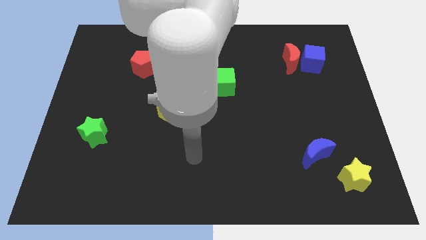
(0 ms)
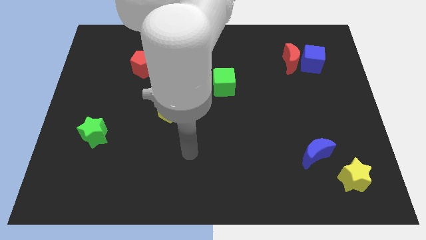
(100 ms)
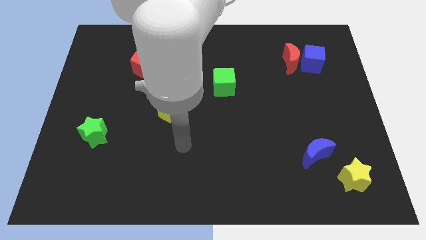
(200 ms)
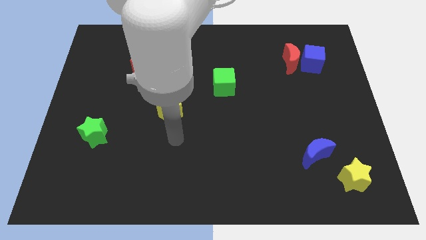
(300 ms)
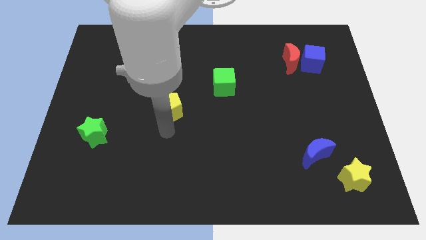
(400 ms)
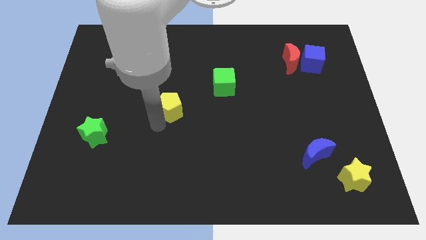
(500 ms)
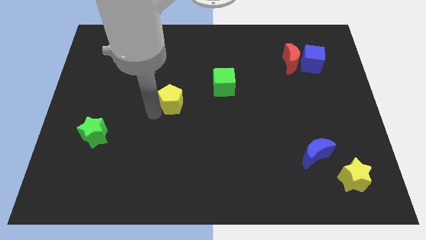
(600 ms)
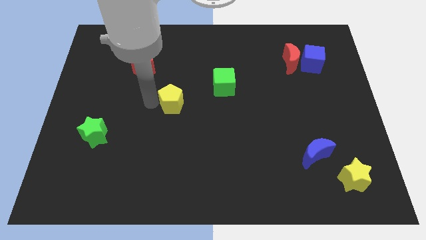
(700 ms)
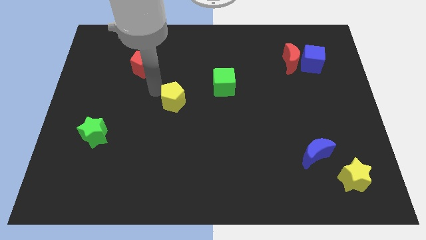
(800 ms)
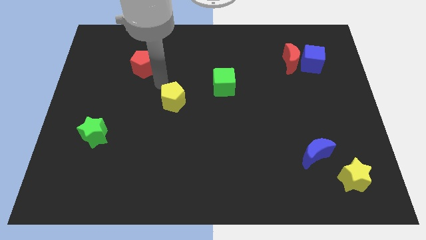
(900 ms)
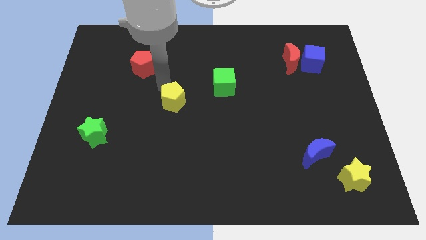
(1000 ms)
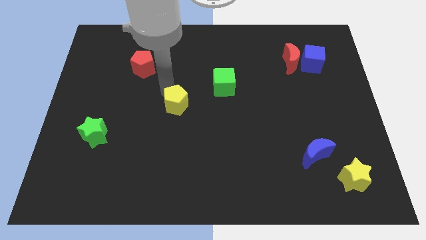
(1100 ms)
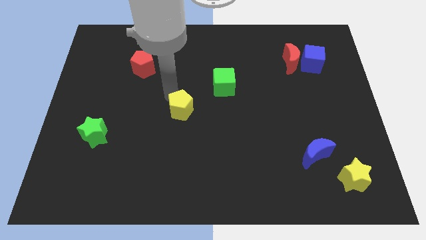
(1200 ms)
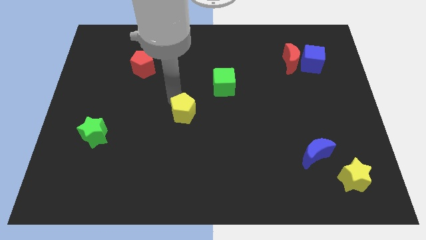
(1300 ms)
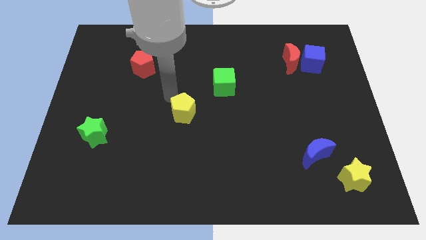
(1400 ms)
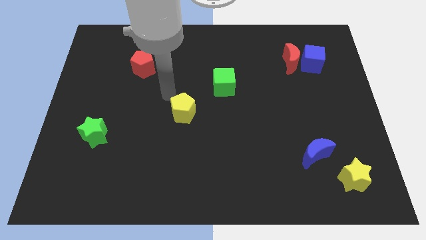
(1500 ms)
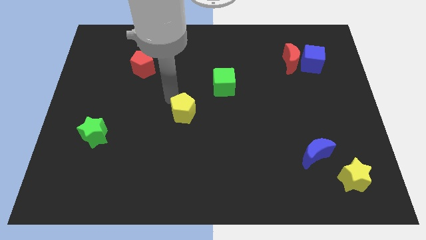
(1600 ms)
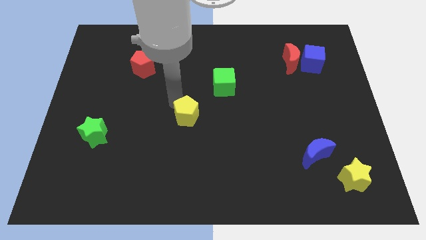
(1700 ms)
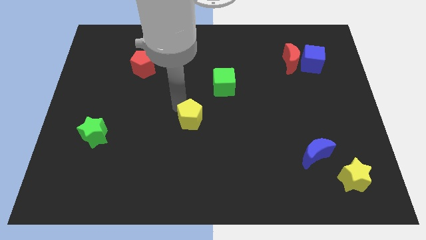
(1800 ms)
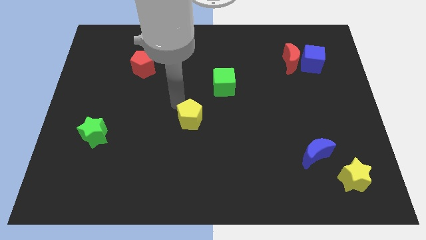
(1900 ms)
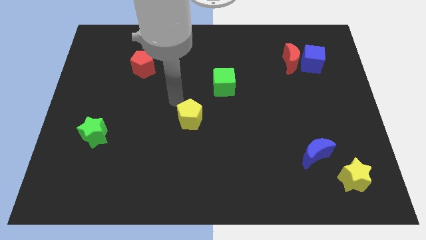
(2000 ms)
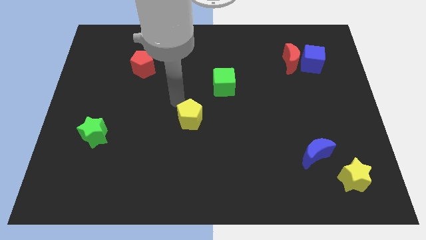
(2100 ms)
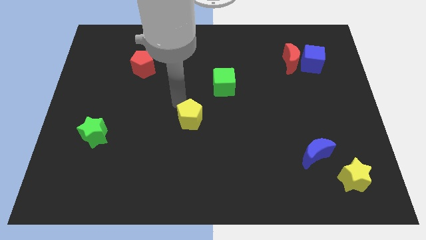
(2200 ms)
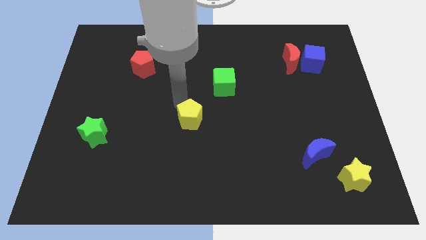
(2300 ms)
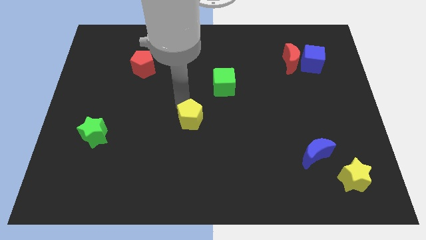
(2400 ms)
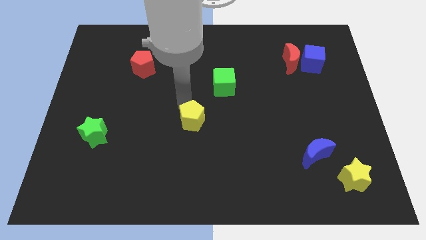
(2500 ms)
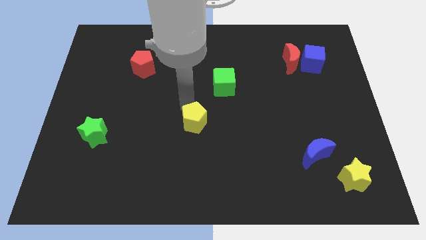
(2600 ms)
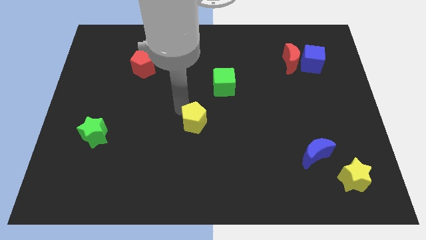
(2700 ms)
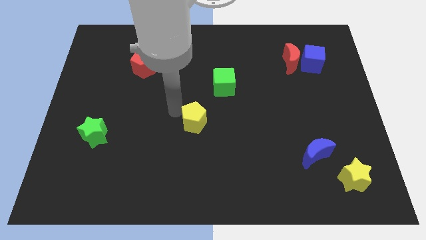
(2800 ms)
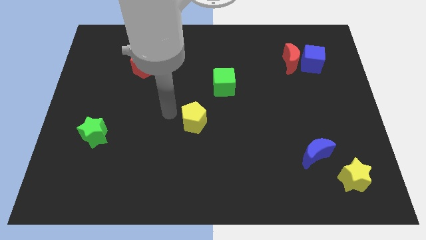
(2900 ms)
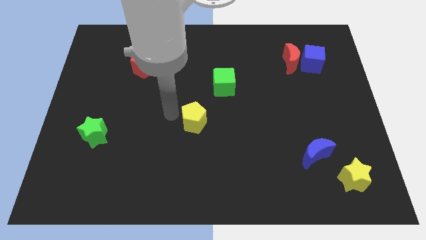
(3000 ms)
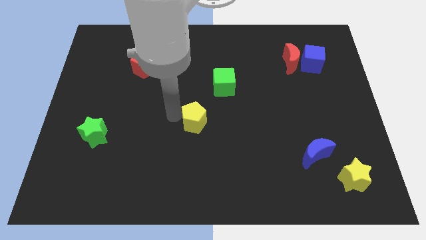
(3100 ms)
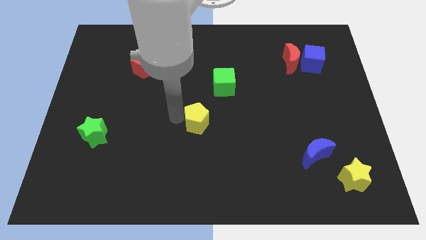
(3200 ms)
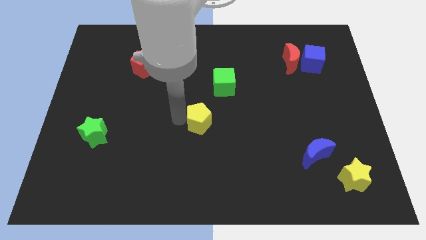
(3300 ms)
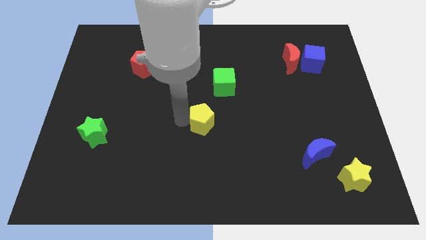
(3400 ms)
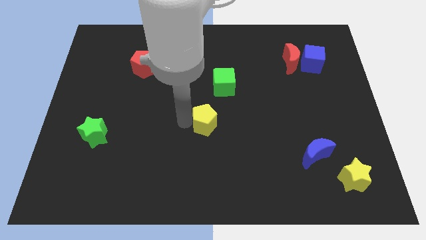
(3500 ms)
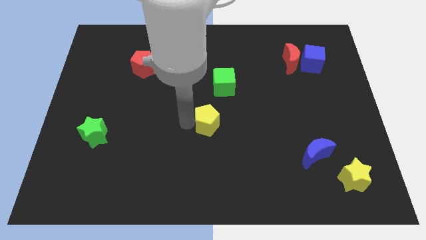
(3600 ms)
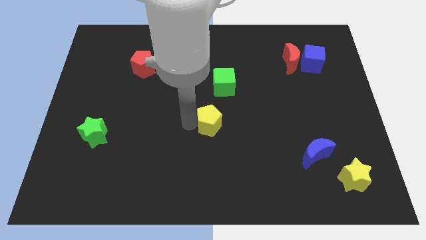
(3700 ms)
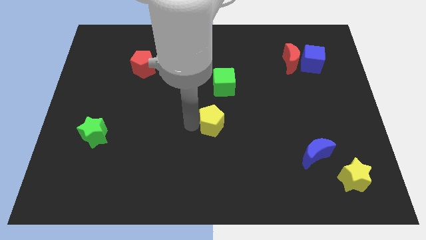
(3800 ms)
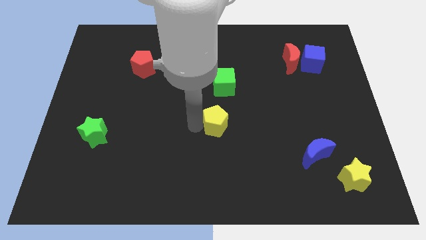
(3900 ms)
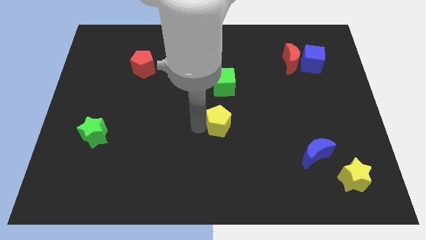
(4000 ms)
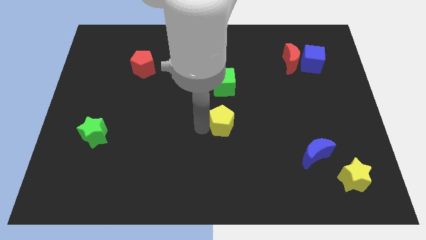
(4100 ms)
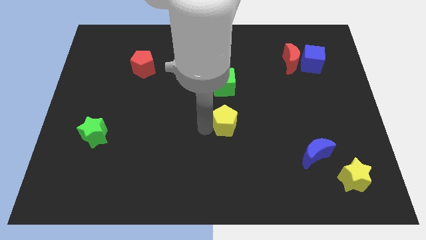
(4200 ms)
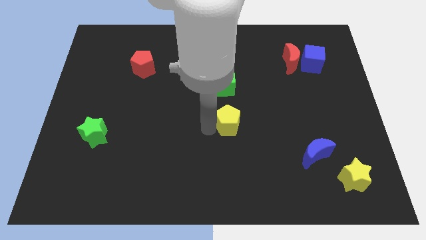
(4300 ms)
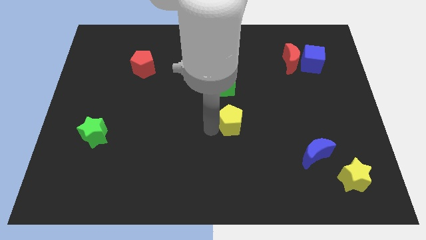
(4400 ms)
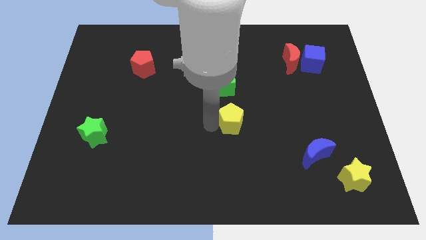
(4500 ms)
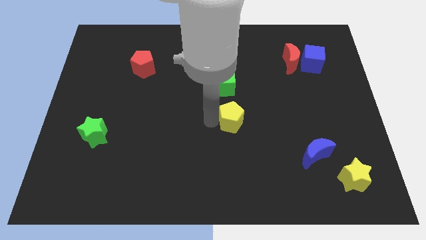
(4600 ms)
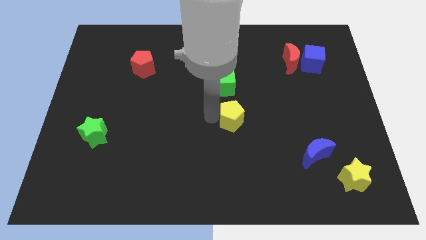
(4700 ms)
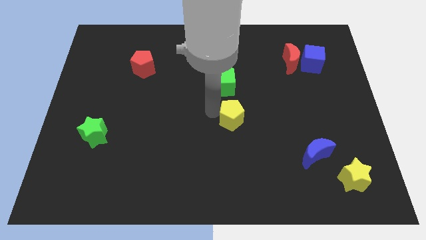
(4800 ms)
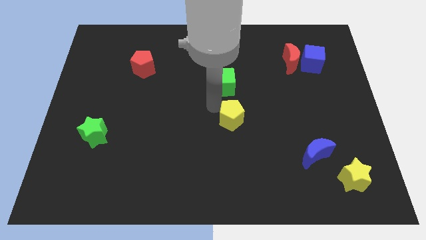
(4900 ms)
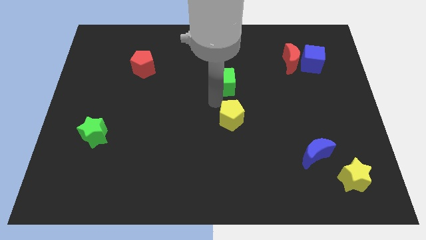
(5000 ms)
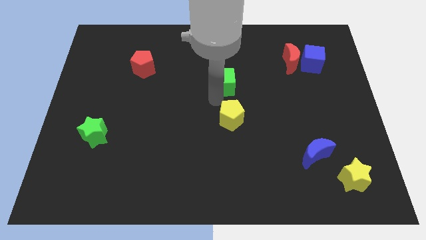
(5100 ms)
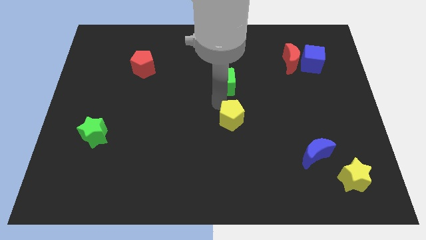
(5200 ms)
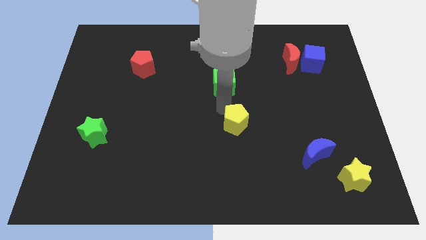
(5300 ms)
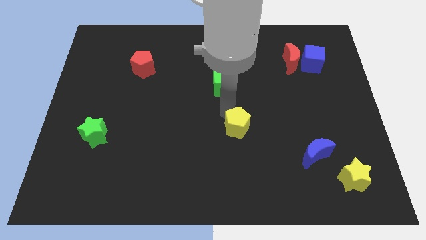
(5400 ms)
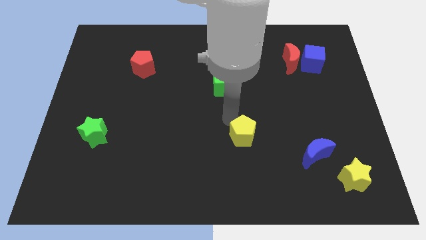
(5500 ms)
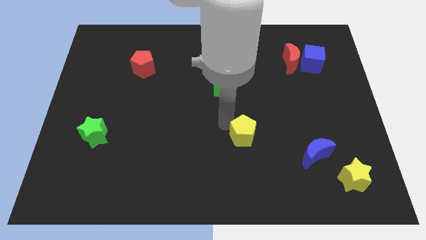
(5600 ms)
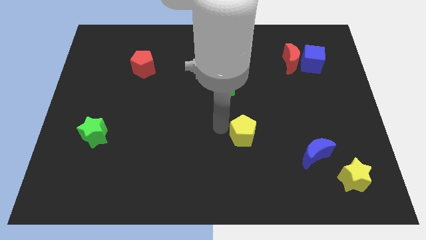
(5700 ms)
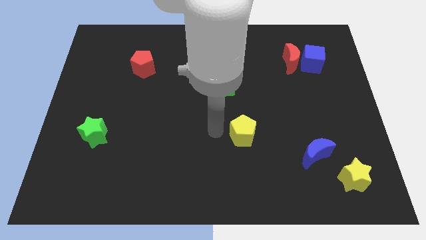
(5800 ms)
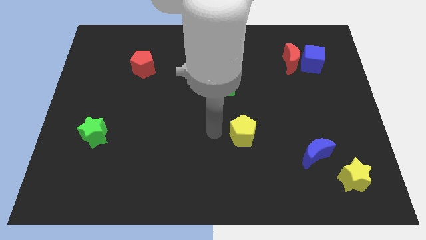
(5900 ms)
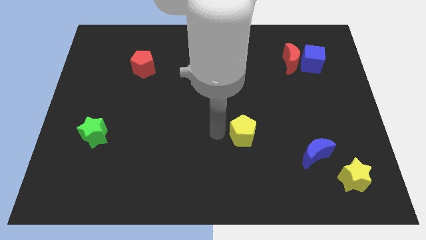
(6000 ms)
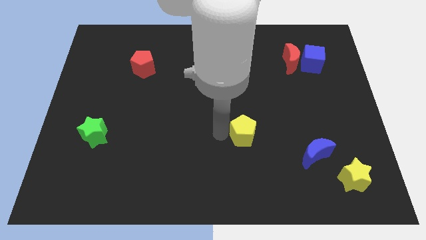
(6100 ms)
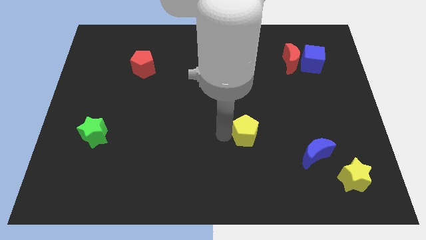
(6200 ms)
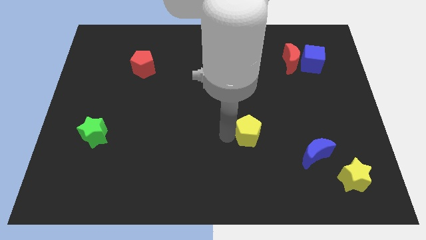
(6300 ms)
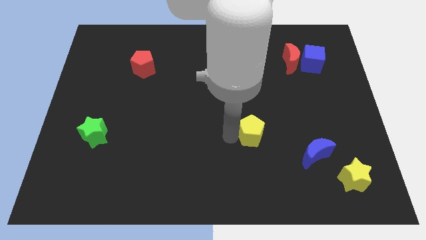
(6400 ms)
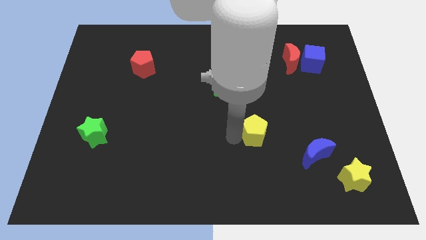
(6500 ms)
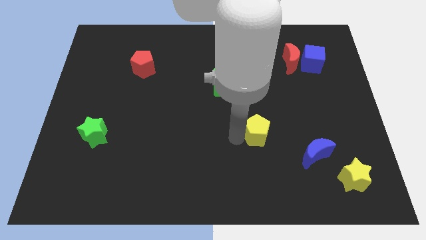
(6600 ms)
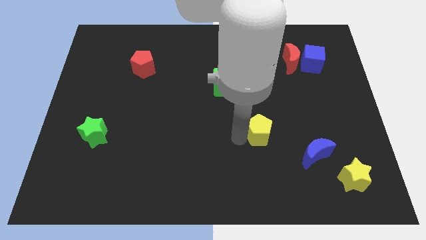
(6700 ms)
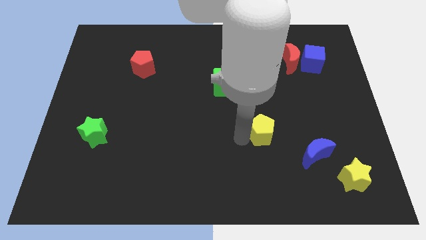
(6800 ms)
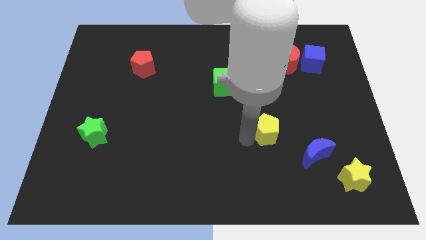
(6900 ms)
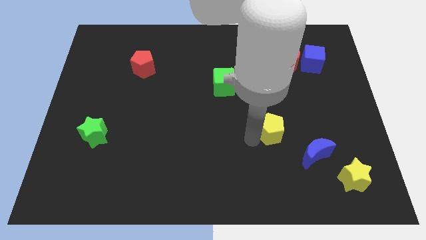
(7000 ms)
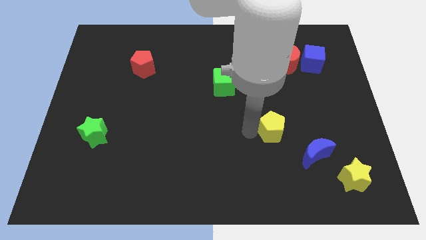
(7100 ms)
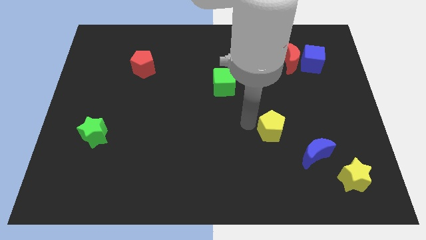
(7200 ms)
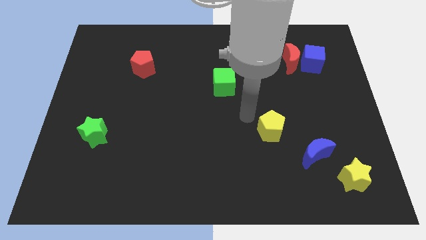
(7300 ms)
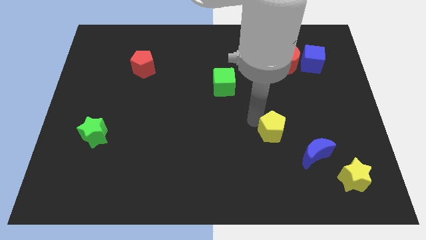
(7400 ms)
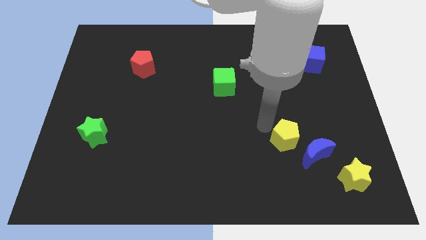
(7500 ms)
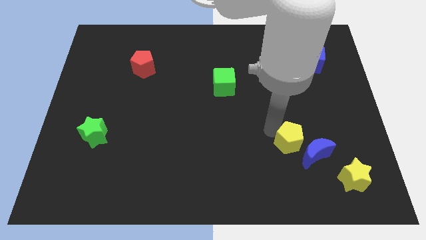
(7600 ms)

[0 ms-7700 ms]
push the yellow pentagon to the blue moon
